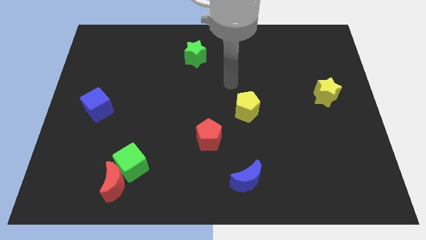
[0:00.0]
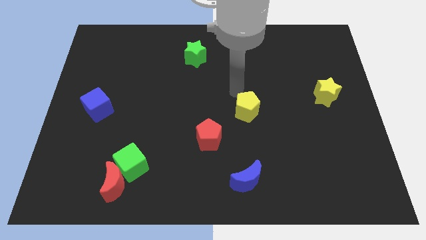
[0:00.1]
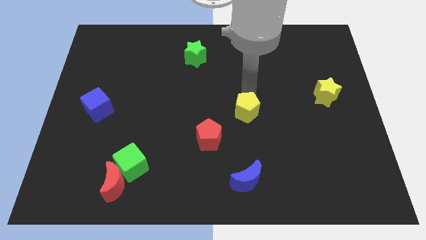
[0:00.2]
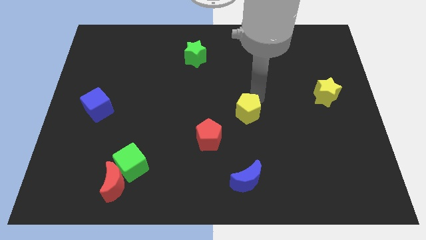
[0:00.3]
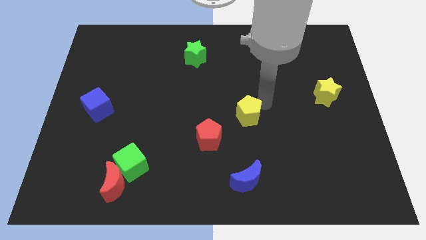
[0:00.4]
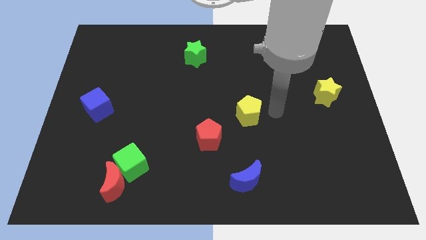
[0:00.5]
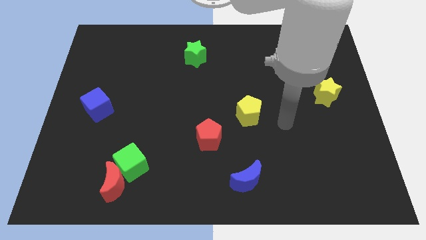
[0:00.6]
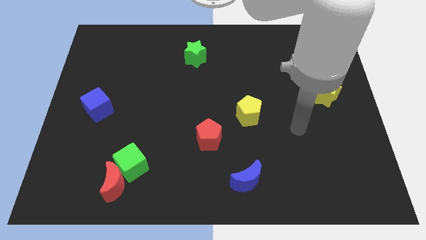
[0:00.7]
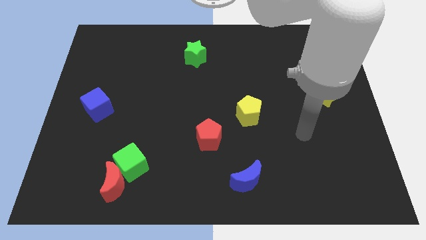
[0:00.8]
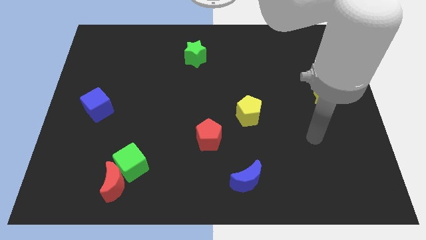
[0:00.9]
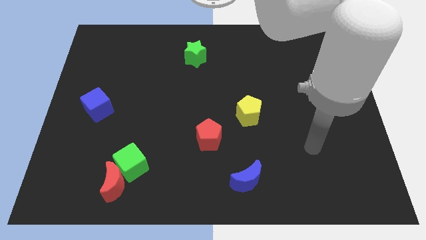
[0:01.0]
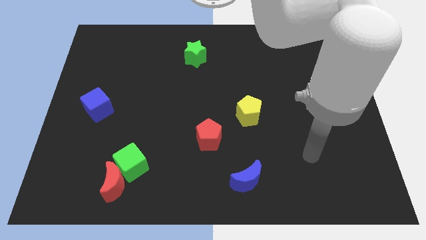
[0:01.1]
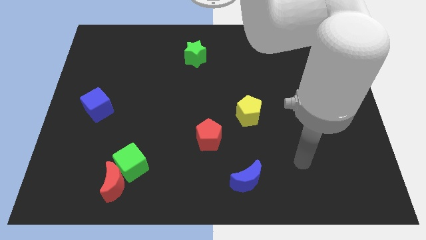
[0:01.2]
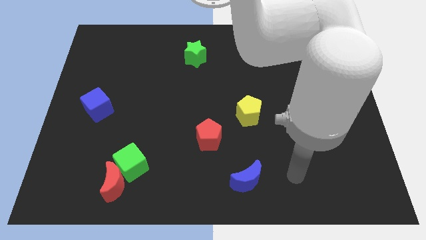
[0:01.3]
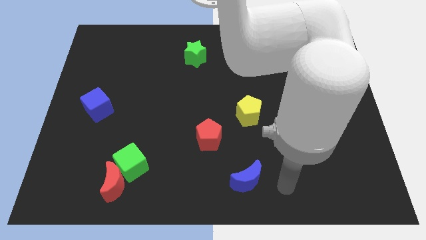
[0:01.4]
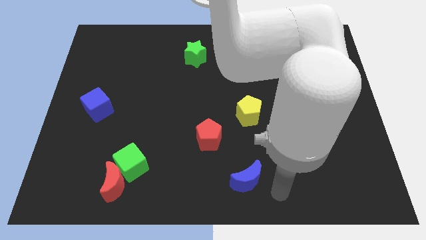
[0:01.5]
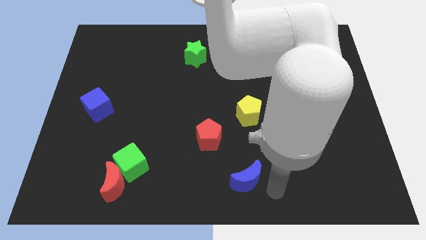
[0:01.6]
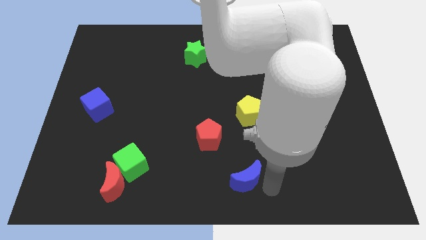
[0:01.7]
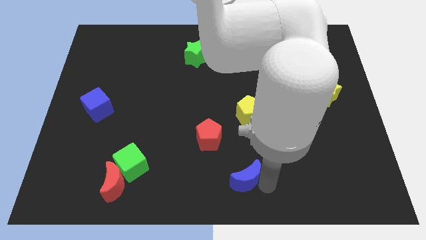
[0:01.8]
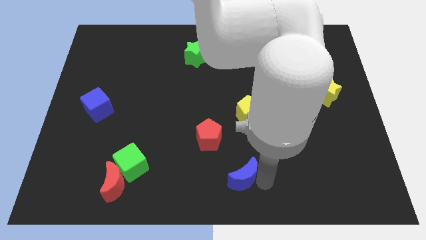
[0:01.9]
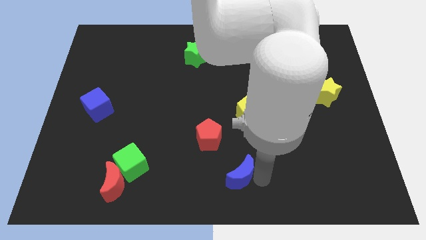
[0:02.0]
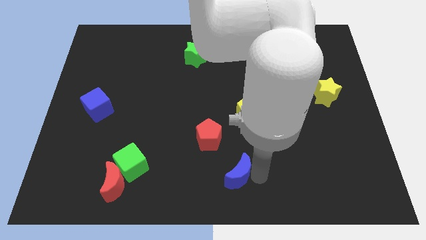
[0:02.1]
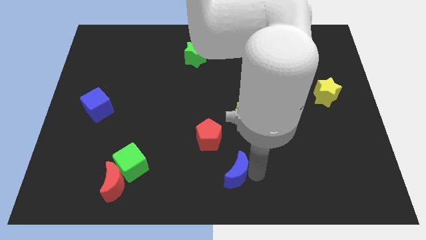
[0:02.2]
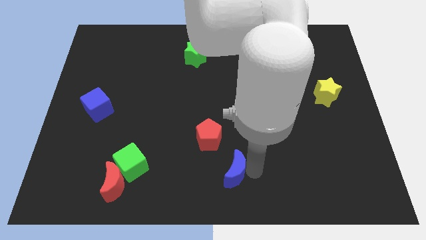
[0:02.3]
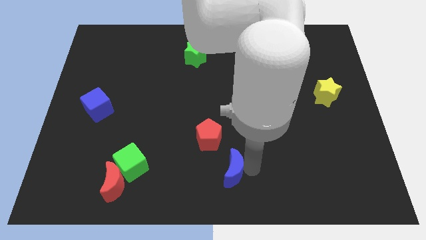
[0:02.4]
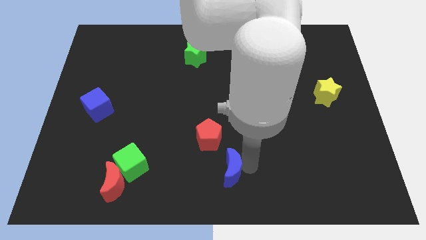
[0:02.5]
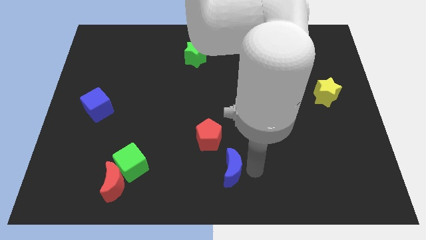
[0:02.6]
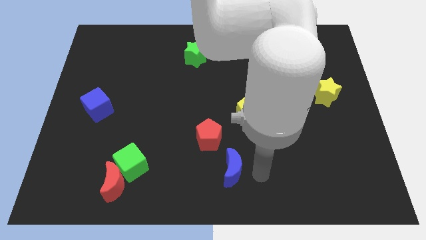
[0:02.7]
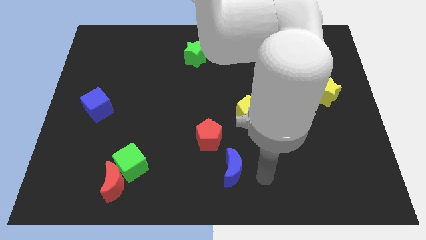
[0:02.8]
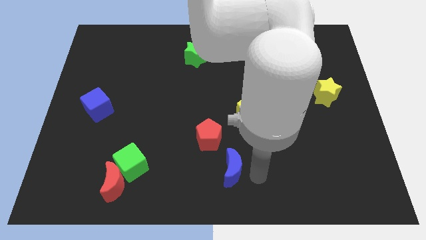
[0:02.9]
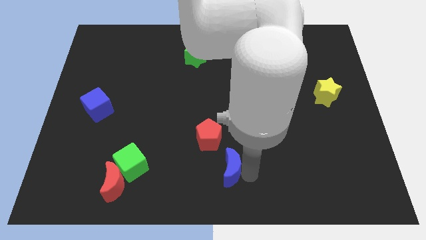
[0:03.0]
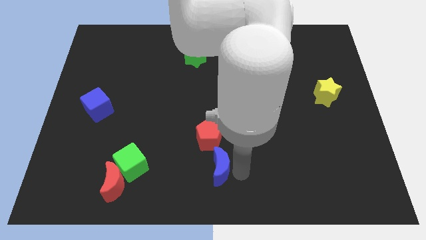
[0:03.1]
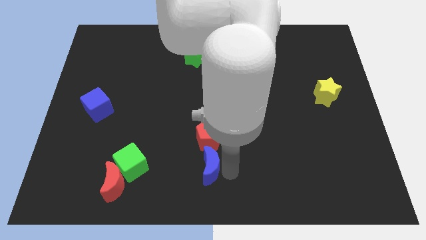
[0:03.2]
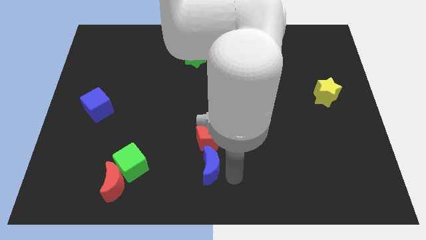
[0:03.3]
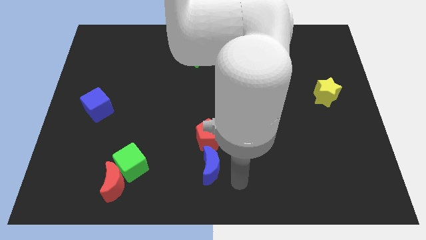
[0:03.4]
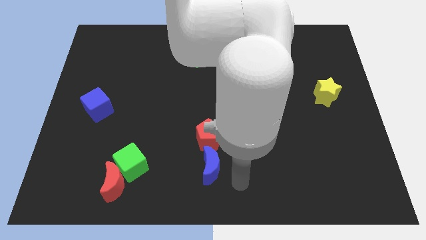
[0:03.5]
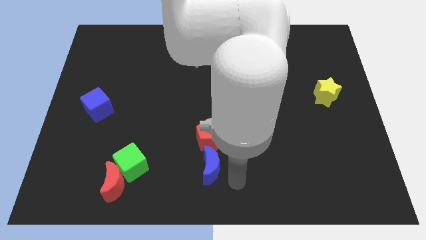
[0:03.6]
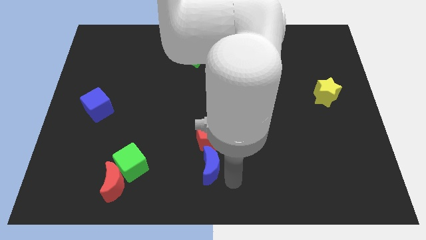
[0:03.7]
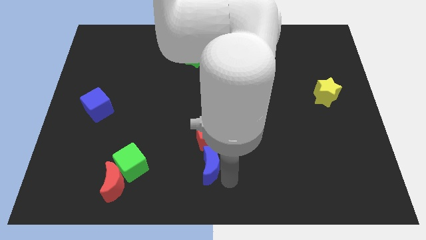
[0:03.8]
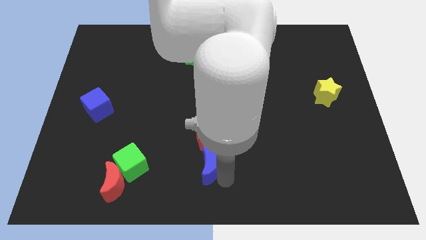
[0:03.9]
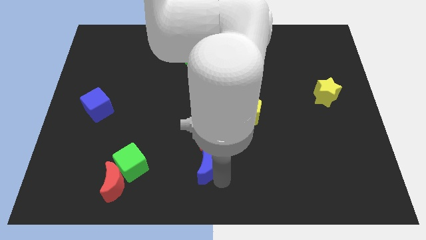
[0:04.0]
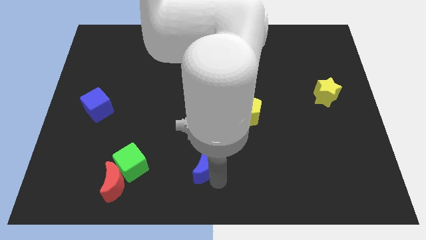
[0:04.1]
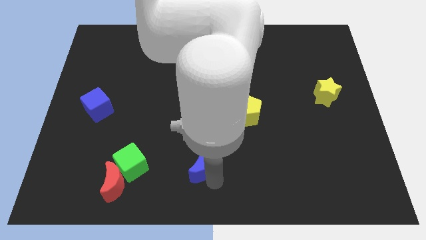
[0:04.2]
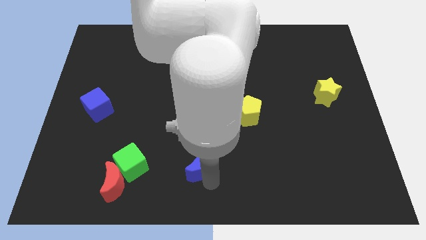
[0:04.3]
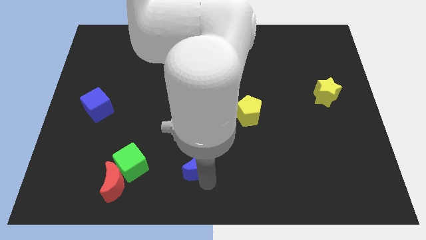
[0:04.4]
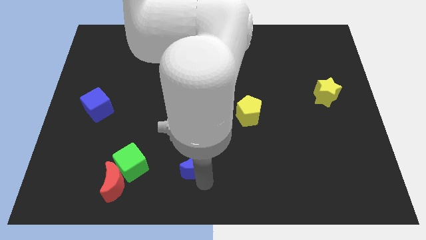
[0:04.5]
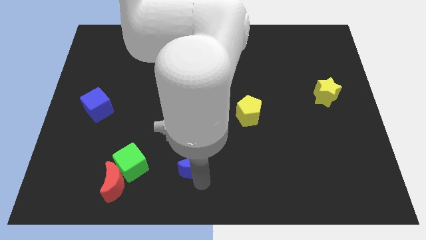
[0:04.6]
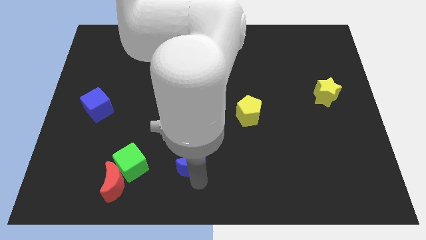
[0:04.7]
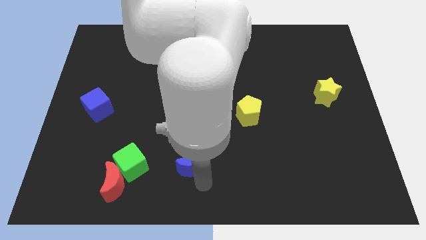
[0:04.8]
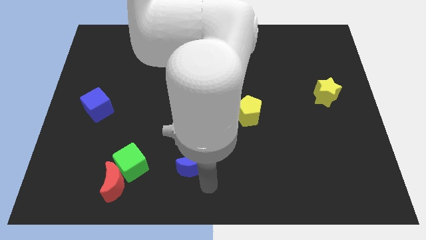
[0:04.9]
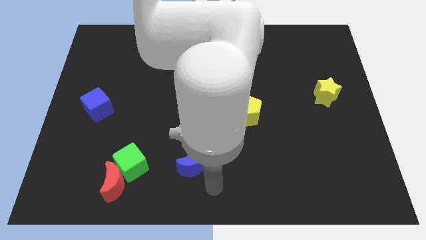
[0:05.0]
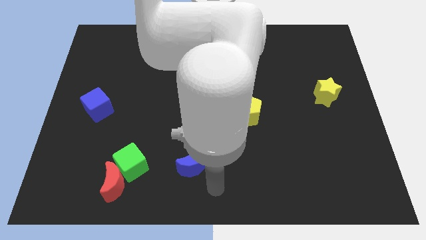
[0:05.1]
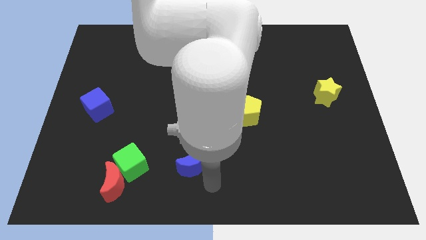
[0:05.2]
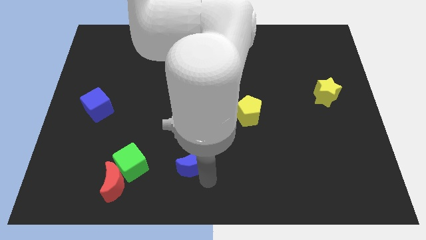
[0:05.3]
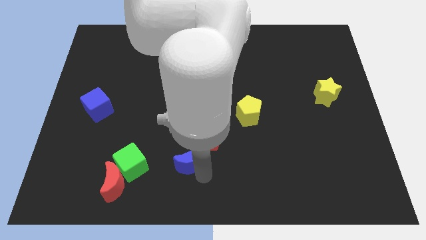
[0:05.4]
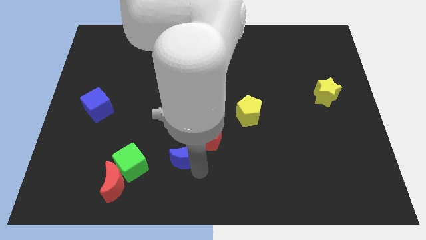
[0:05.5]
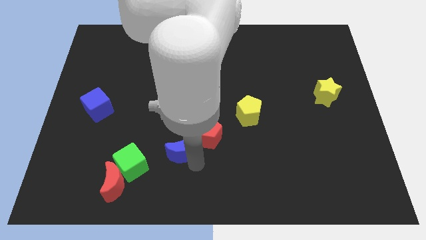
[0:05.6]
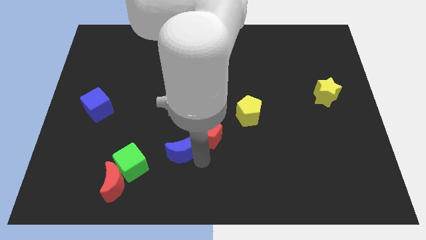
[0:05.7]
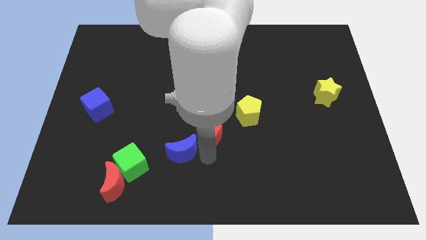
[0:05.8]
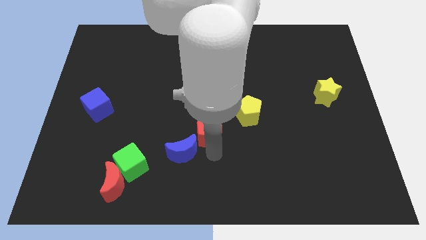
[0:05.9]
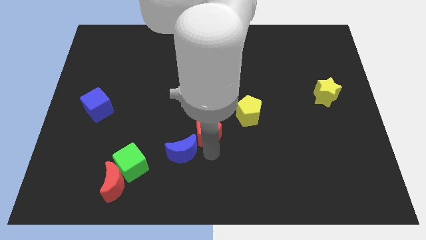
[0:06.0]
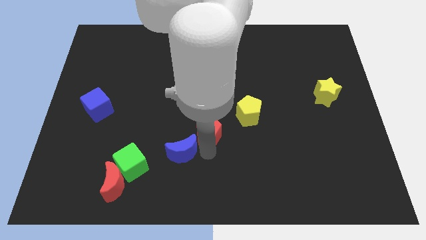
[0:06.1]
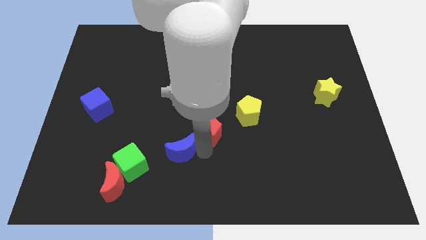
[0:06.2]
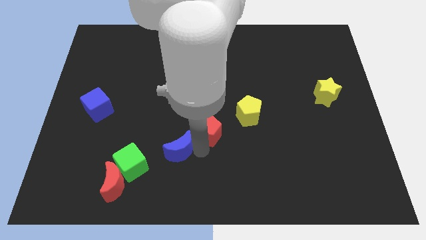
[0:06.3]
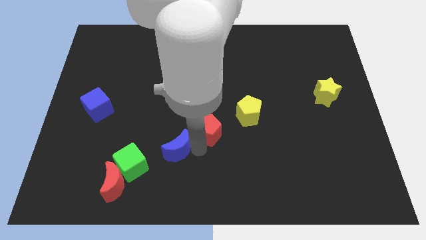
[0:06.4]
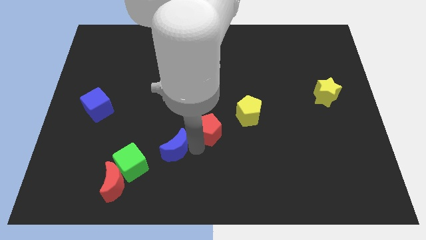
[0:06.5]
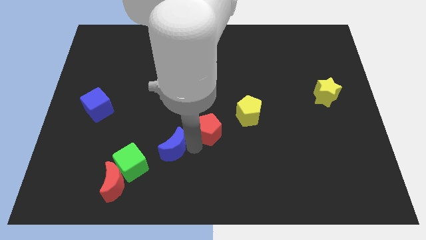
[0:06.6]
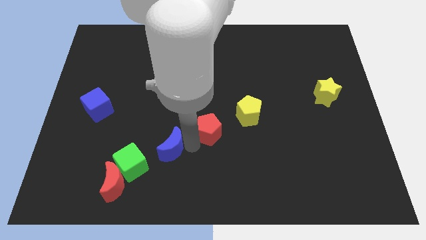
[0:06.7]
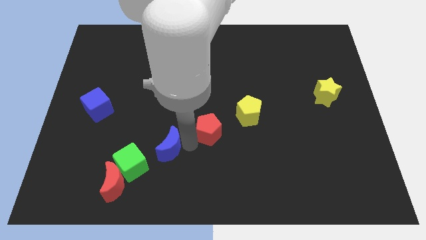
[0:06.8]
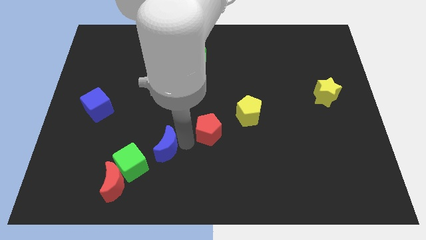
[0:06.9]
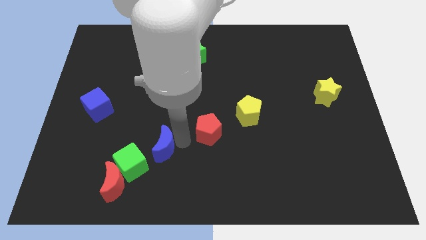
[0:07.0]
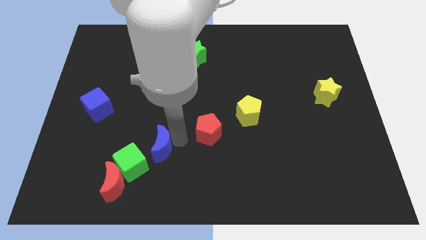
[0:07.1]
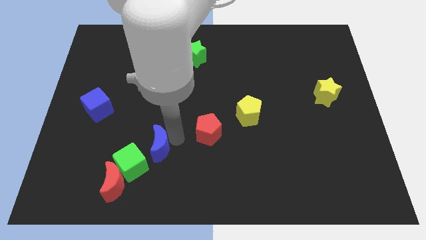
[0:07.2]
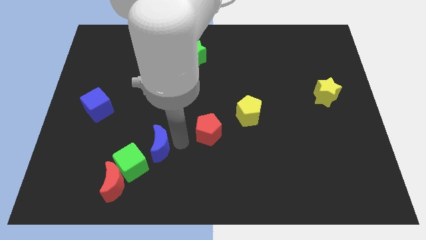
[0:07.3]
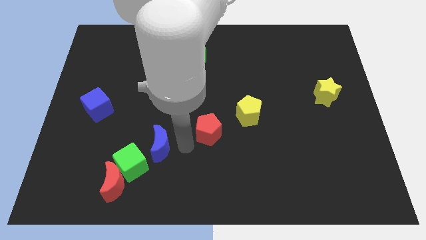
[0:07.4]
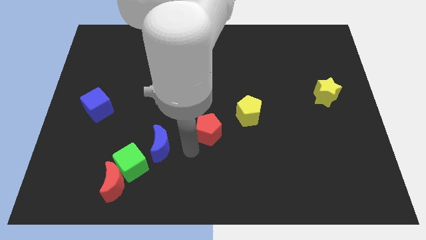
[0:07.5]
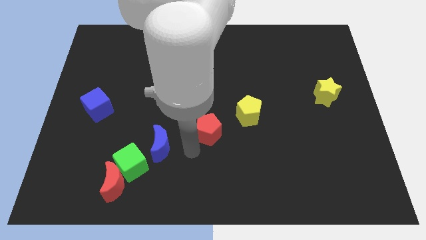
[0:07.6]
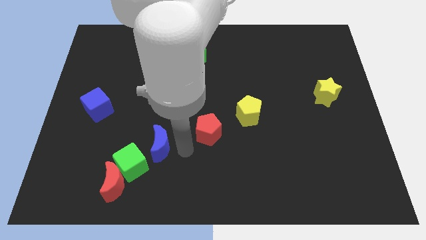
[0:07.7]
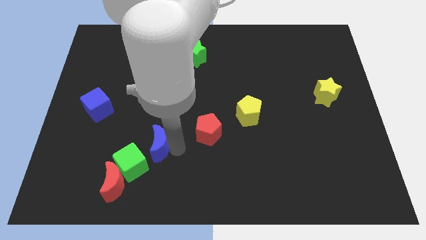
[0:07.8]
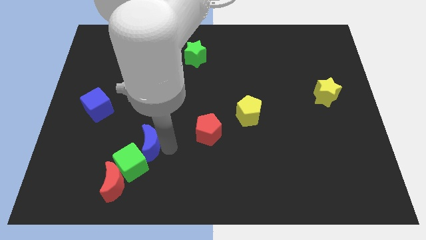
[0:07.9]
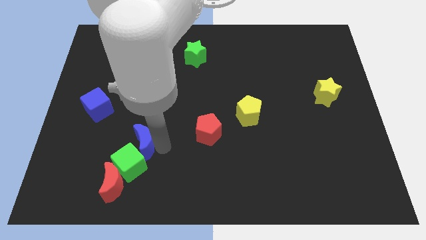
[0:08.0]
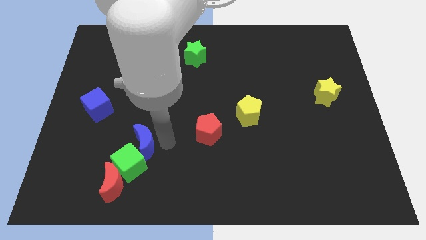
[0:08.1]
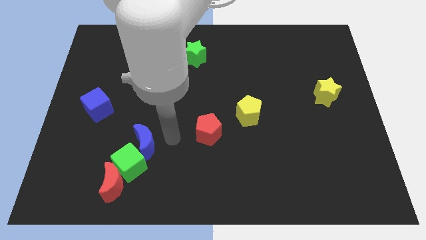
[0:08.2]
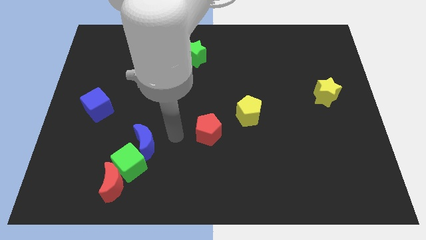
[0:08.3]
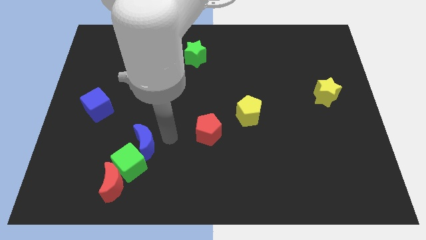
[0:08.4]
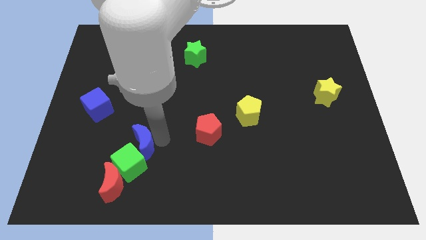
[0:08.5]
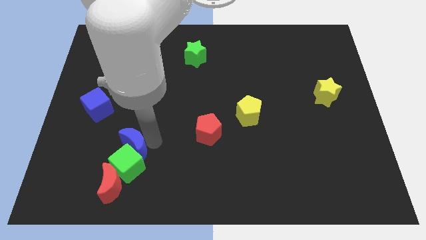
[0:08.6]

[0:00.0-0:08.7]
push the blue moon left
